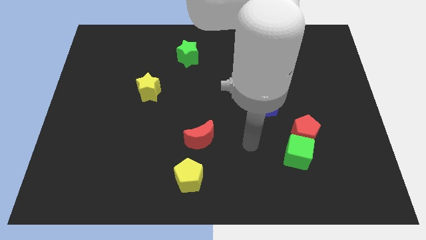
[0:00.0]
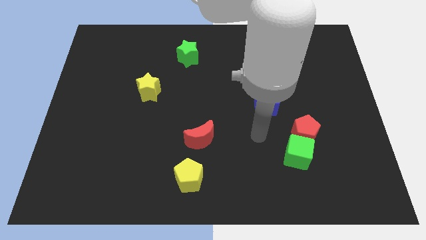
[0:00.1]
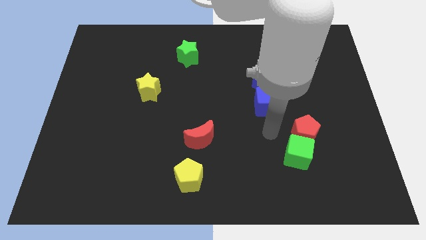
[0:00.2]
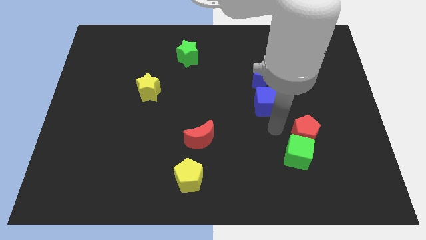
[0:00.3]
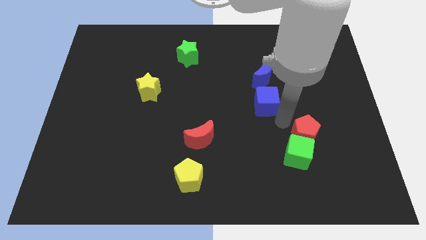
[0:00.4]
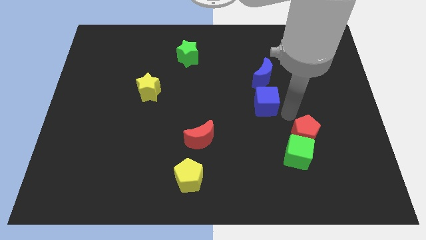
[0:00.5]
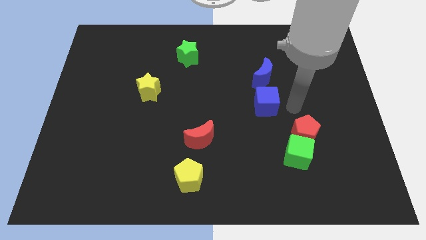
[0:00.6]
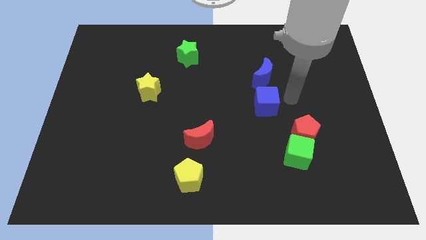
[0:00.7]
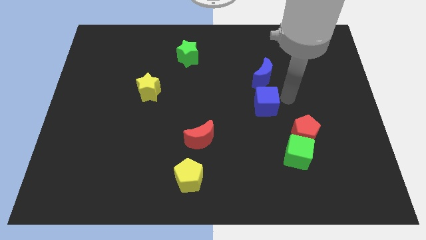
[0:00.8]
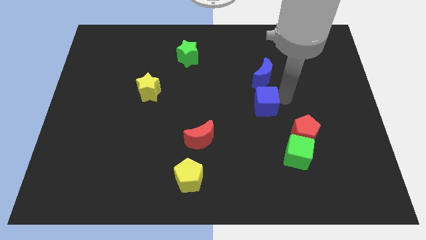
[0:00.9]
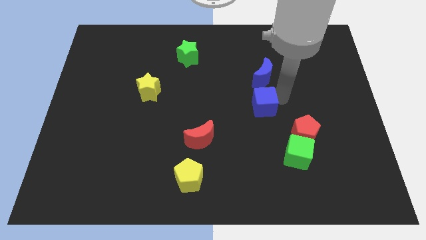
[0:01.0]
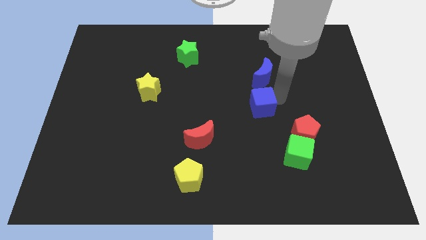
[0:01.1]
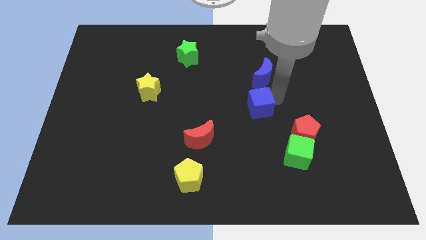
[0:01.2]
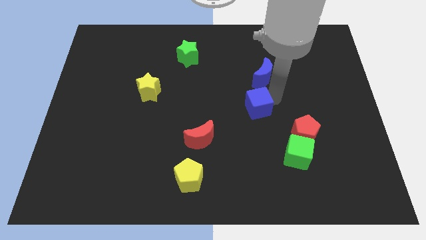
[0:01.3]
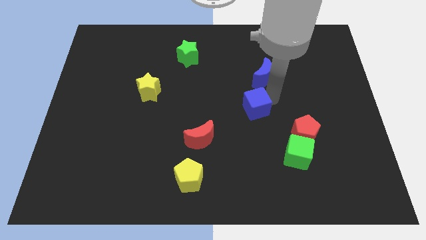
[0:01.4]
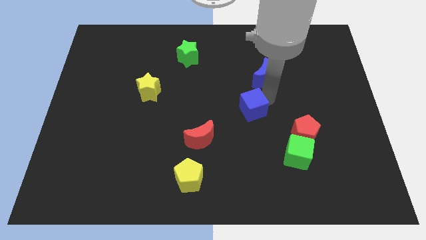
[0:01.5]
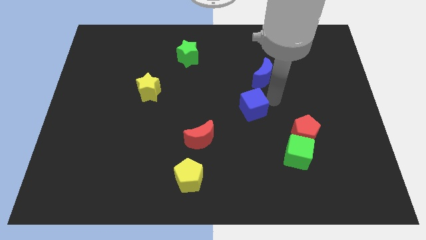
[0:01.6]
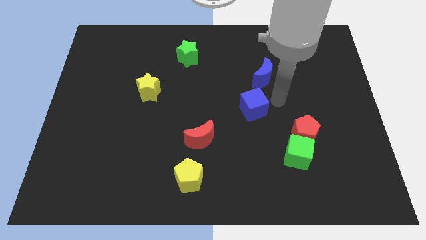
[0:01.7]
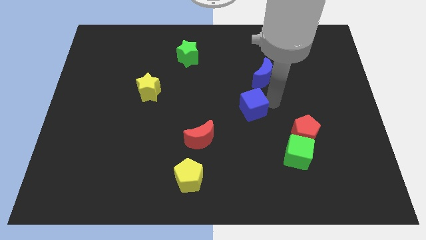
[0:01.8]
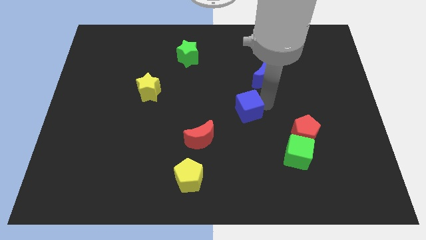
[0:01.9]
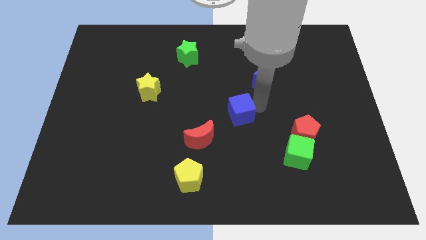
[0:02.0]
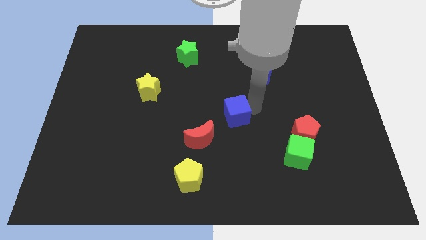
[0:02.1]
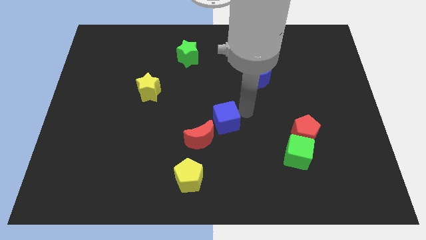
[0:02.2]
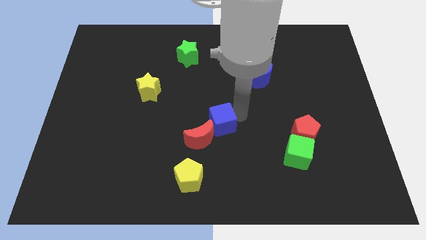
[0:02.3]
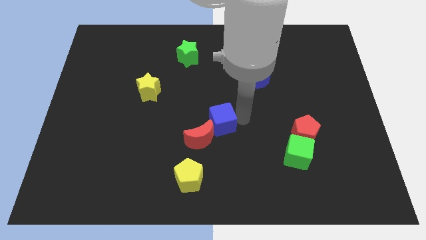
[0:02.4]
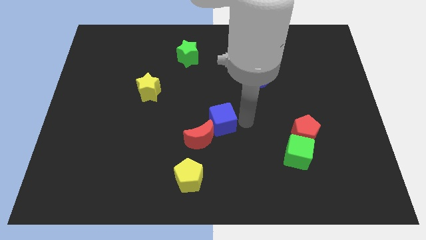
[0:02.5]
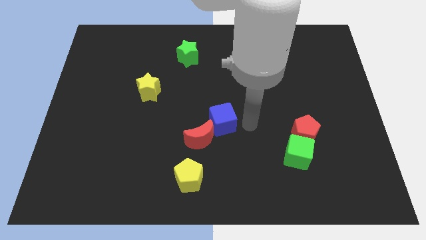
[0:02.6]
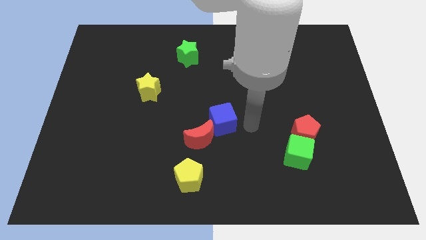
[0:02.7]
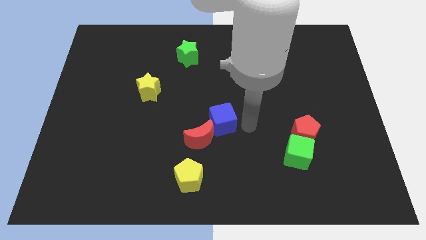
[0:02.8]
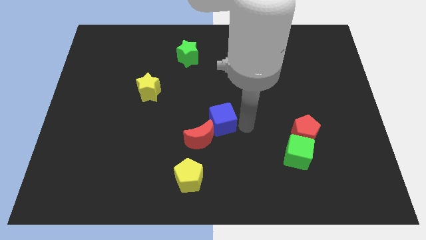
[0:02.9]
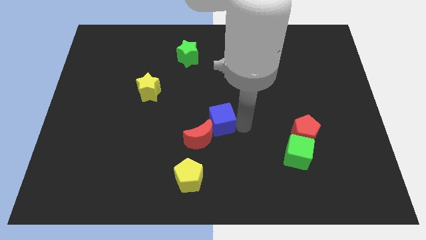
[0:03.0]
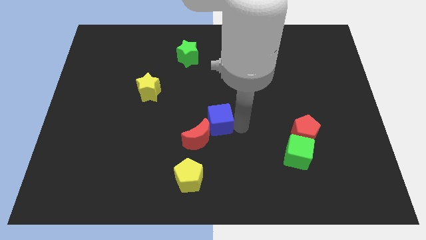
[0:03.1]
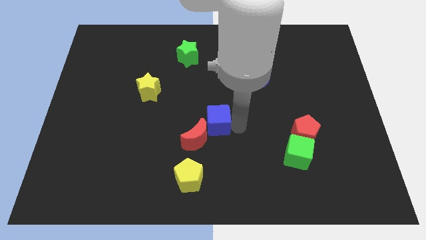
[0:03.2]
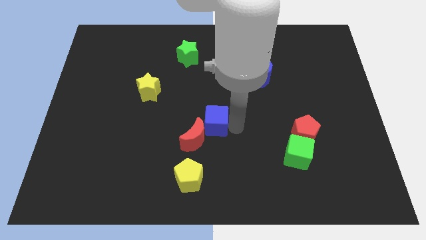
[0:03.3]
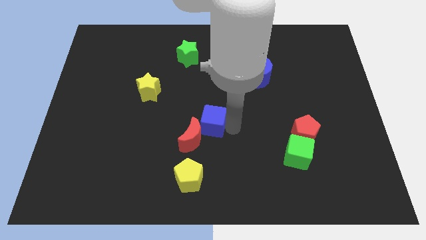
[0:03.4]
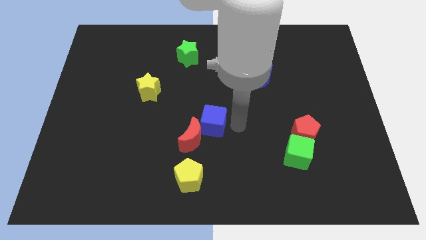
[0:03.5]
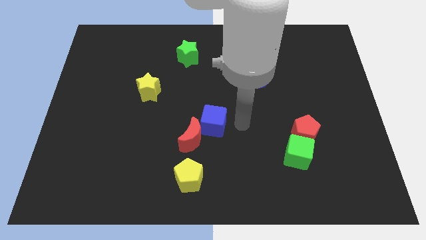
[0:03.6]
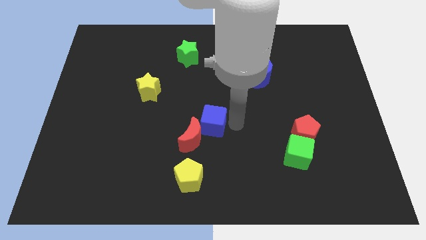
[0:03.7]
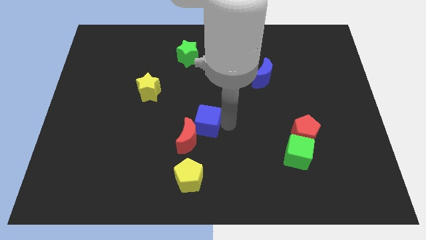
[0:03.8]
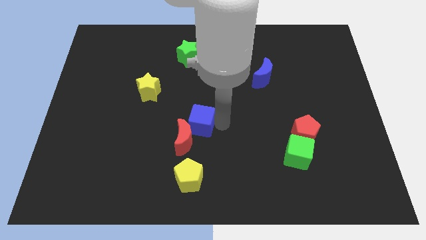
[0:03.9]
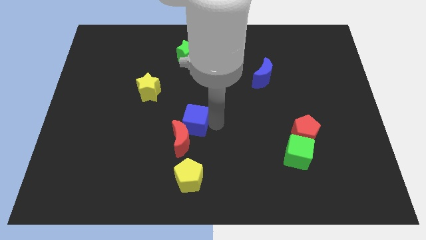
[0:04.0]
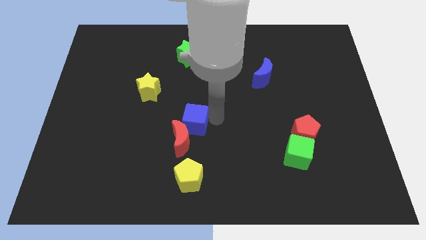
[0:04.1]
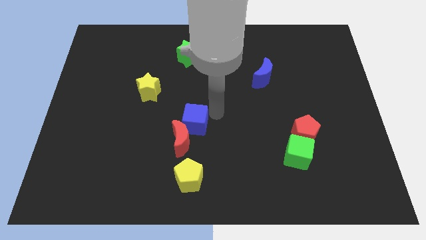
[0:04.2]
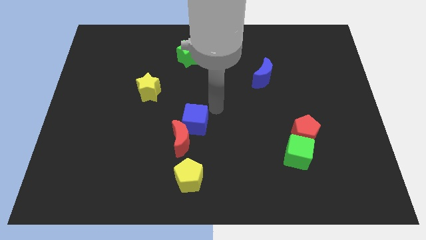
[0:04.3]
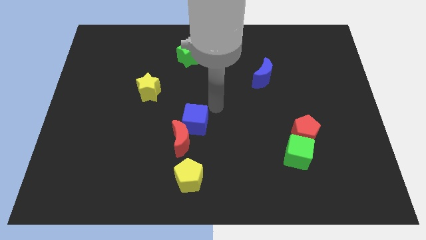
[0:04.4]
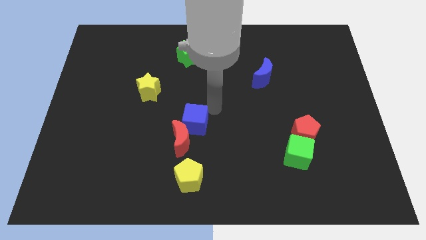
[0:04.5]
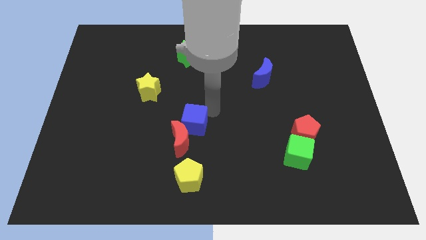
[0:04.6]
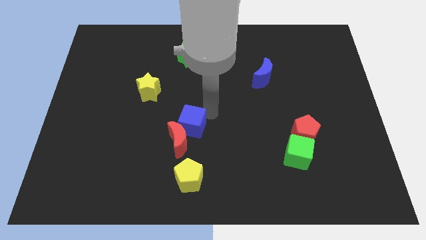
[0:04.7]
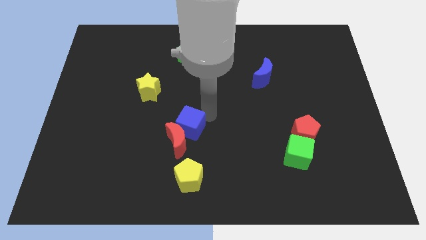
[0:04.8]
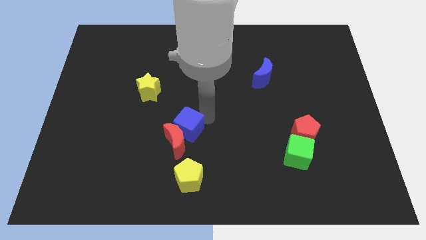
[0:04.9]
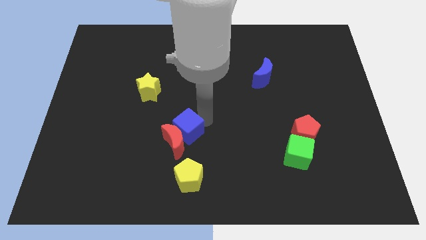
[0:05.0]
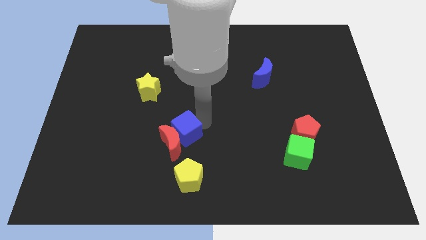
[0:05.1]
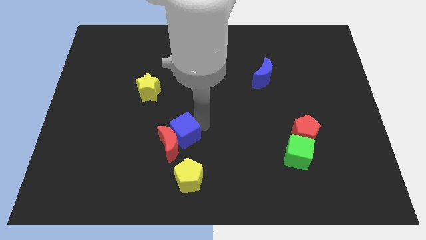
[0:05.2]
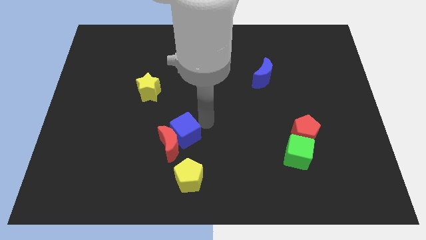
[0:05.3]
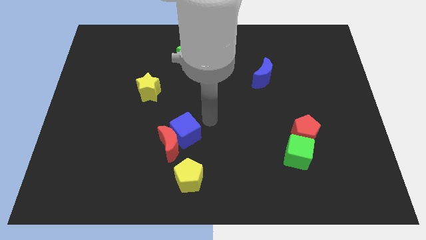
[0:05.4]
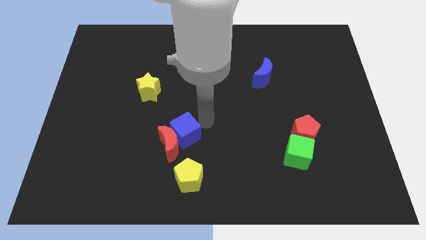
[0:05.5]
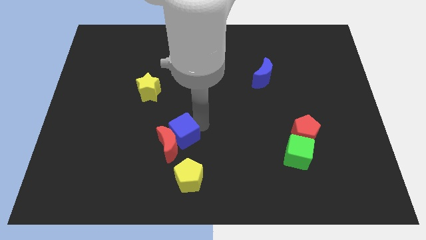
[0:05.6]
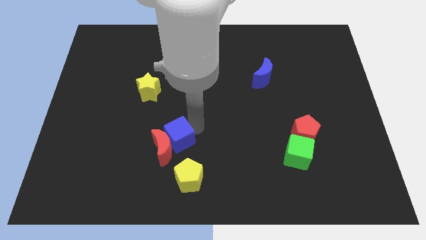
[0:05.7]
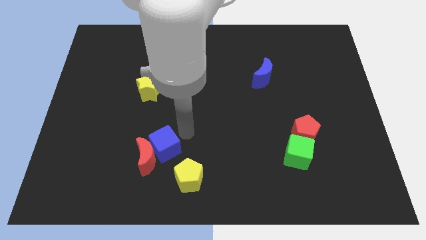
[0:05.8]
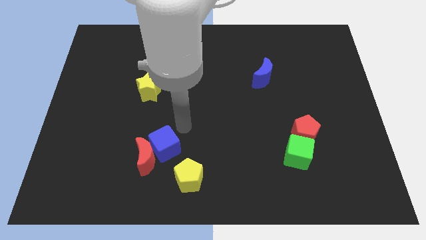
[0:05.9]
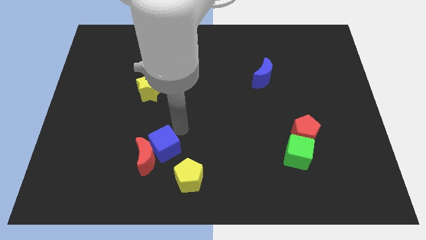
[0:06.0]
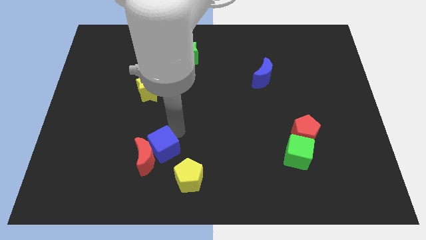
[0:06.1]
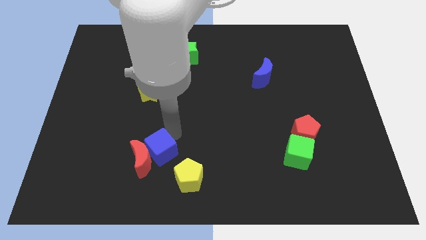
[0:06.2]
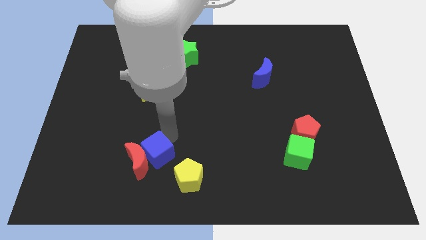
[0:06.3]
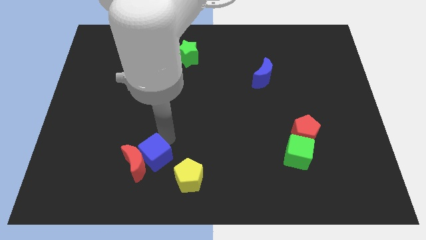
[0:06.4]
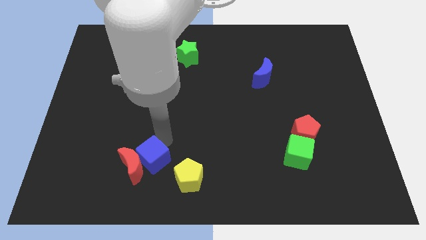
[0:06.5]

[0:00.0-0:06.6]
push the blue cube to the left of the yellow pentagon
